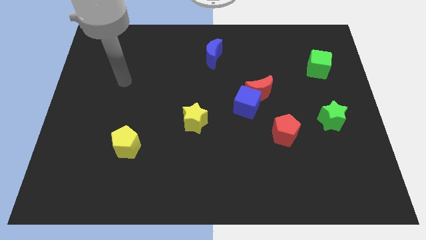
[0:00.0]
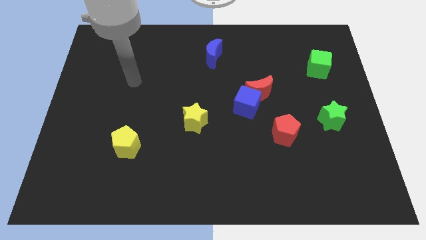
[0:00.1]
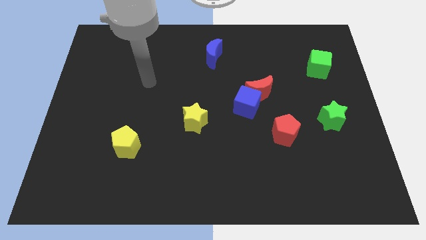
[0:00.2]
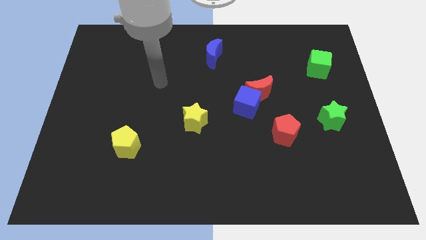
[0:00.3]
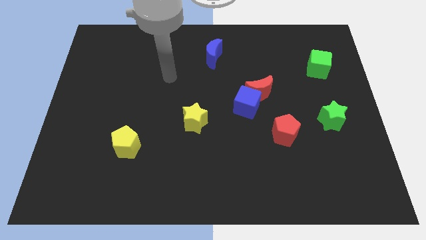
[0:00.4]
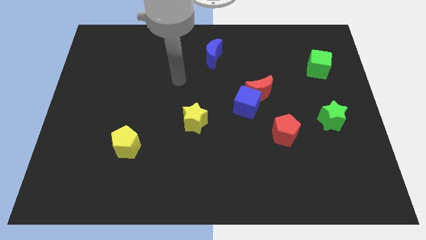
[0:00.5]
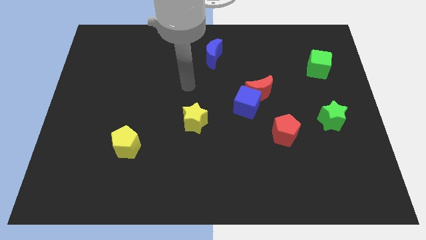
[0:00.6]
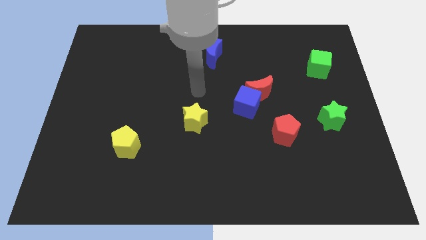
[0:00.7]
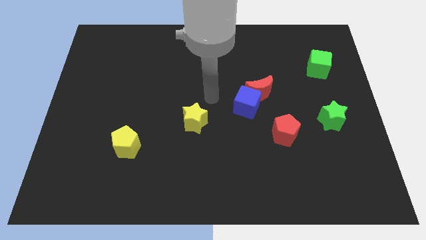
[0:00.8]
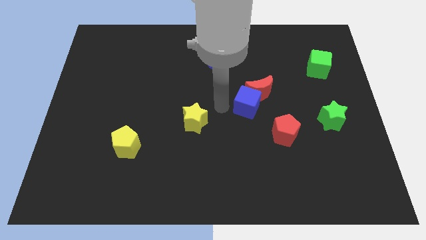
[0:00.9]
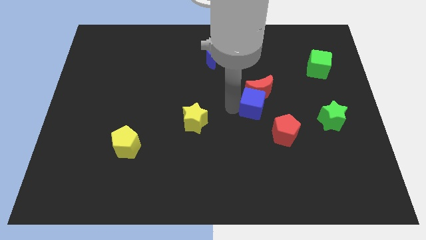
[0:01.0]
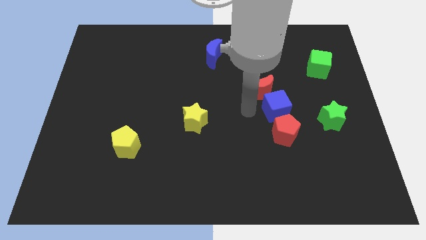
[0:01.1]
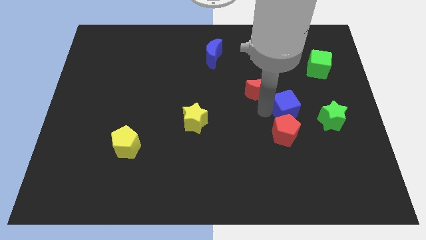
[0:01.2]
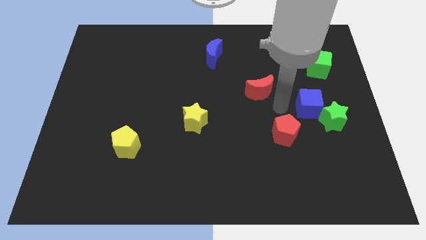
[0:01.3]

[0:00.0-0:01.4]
move the red moon away from the blue cube

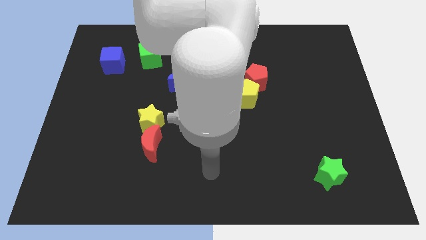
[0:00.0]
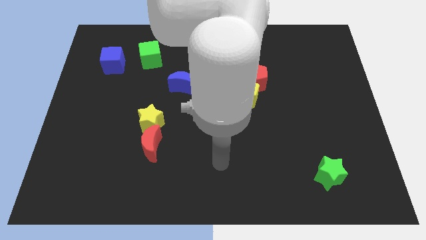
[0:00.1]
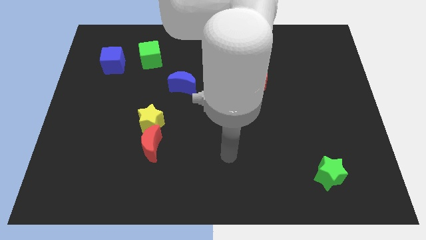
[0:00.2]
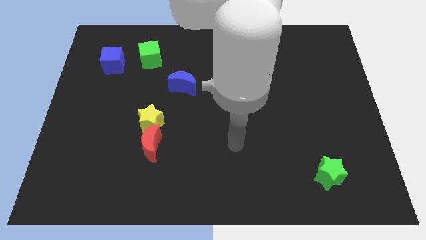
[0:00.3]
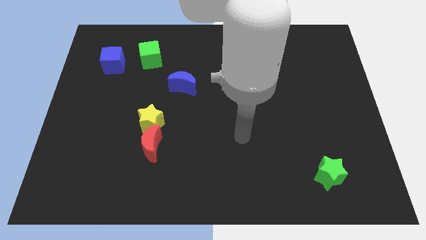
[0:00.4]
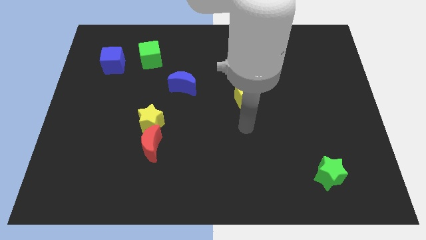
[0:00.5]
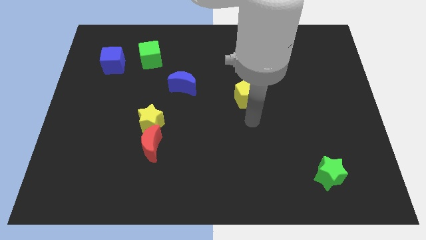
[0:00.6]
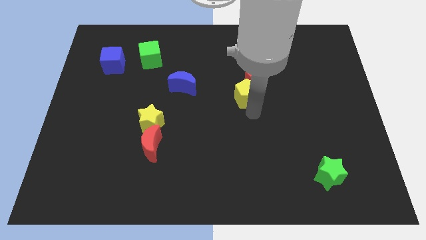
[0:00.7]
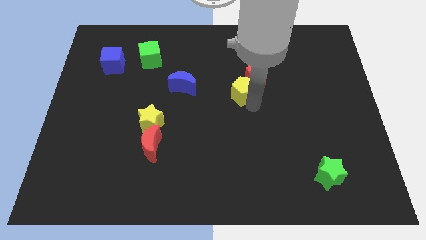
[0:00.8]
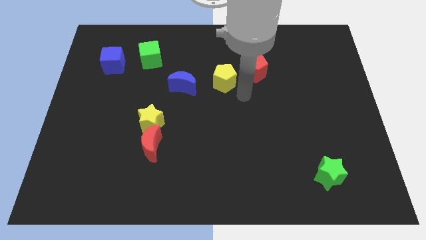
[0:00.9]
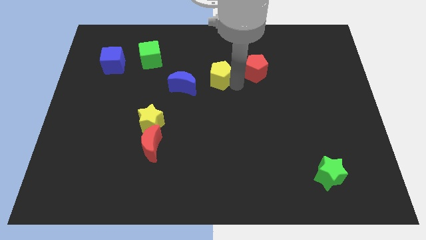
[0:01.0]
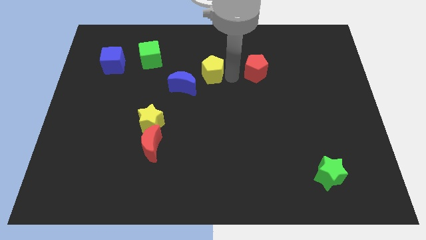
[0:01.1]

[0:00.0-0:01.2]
pull the red pentagon apart from the yellow pentagon

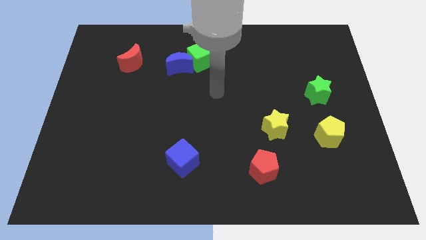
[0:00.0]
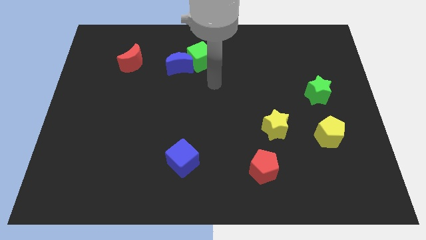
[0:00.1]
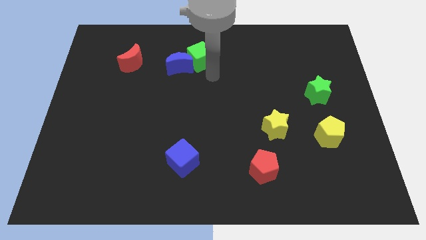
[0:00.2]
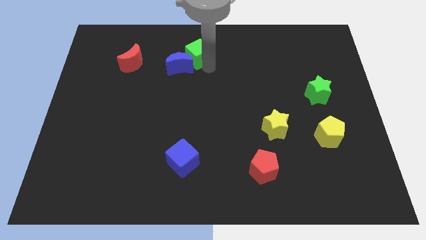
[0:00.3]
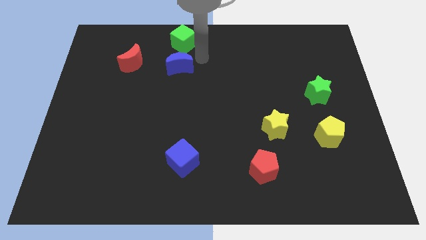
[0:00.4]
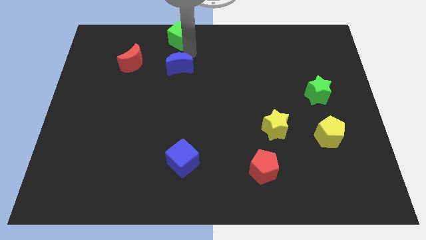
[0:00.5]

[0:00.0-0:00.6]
separate the blue moon from the green cube

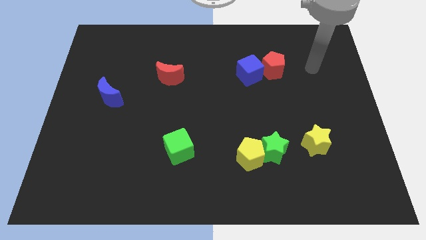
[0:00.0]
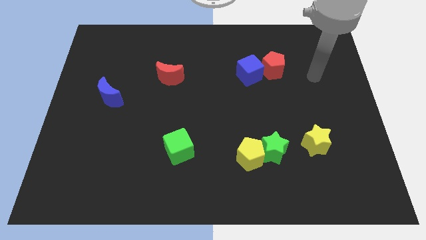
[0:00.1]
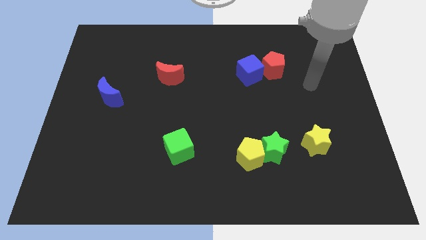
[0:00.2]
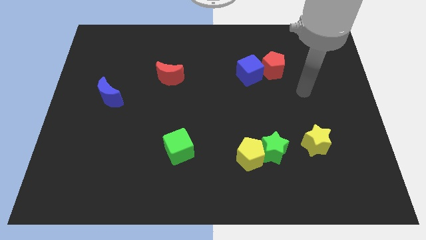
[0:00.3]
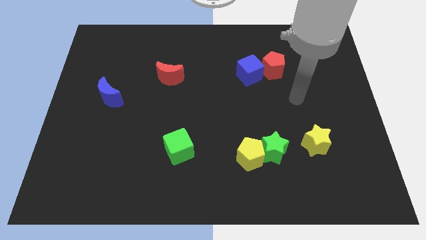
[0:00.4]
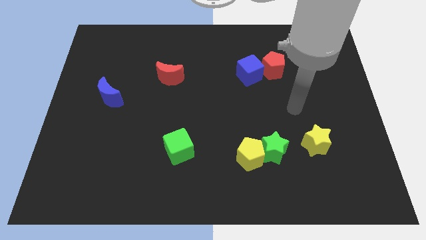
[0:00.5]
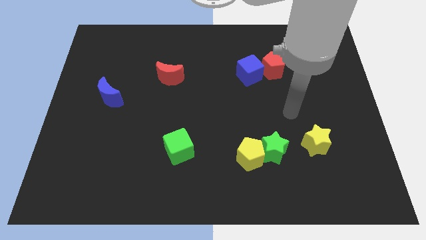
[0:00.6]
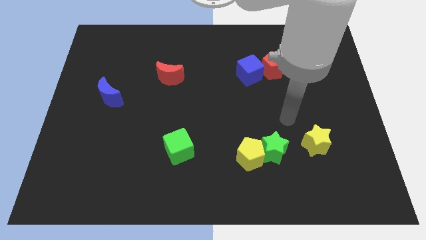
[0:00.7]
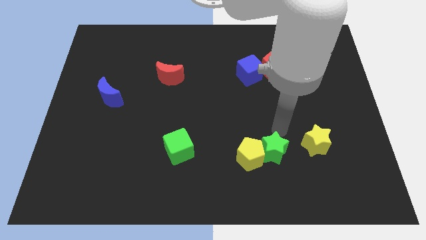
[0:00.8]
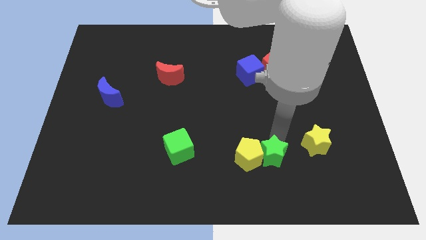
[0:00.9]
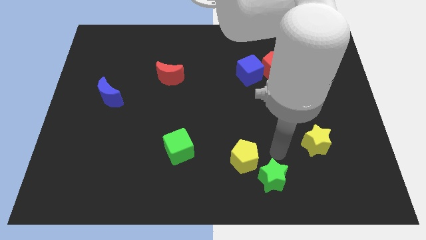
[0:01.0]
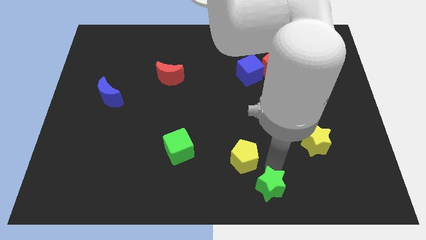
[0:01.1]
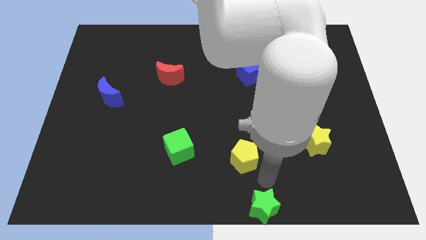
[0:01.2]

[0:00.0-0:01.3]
separate the yellow pentagon from the green star

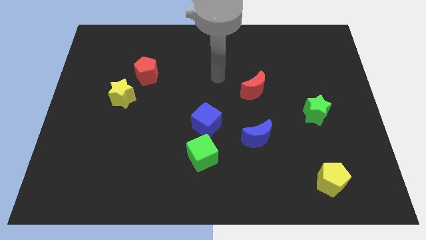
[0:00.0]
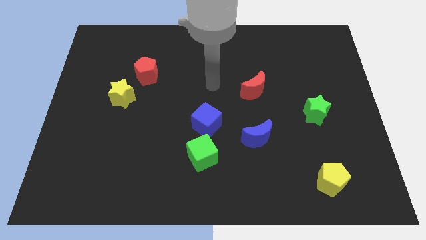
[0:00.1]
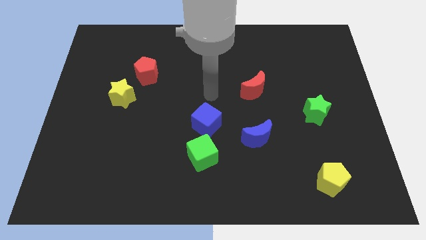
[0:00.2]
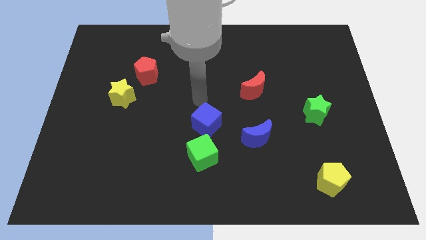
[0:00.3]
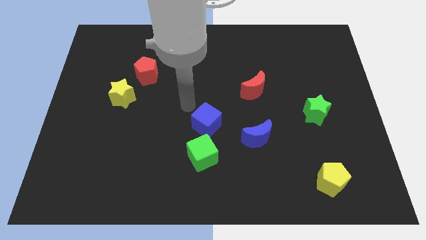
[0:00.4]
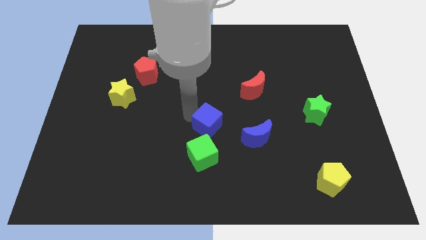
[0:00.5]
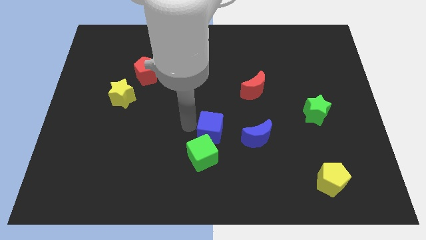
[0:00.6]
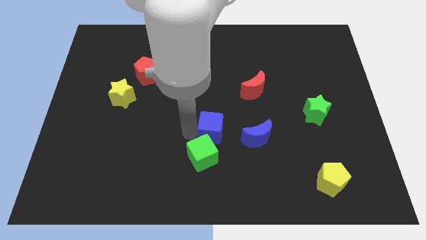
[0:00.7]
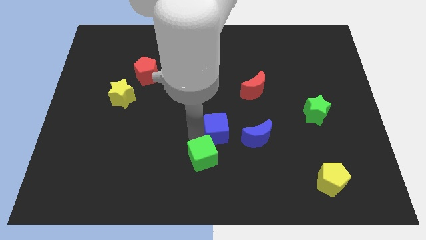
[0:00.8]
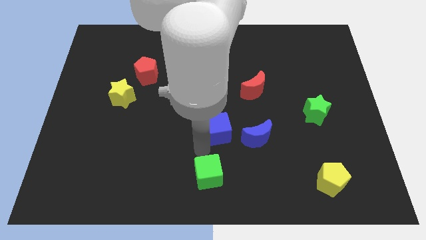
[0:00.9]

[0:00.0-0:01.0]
move the blue cube away from the green cube

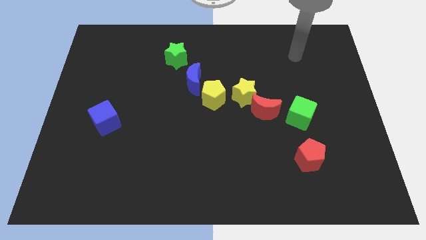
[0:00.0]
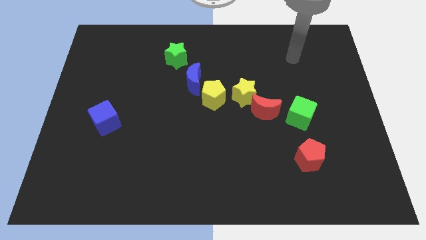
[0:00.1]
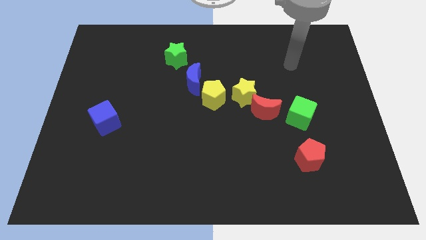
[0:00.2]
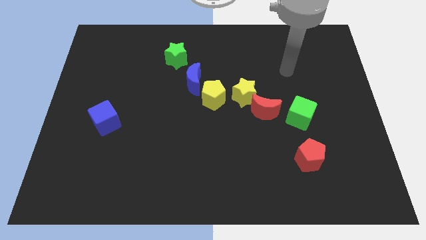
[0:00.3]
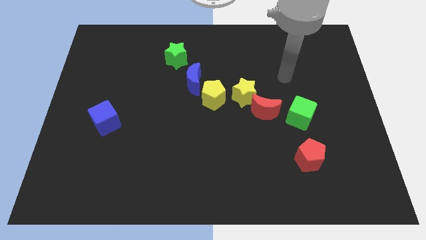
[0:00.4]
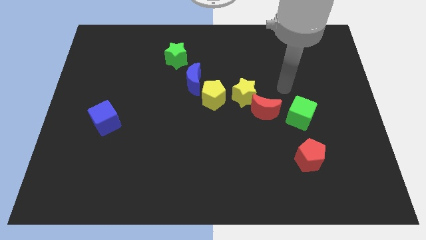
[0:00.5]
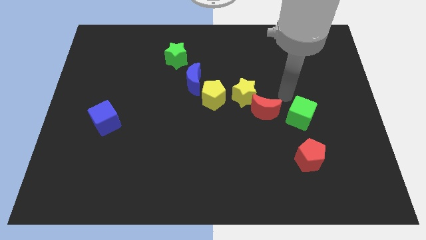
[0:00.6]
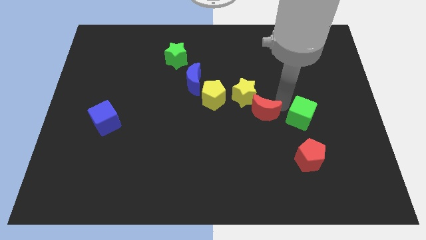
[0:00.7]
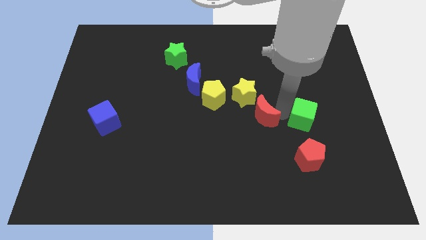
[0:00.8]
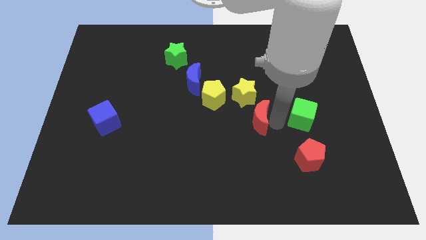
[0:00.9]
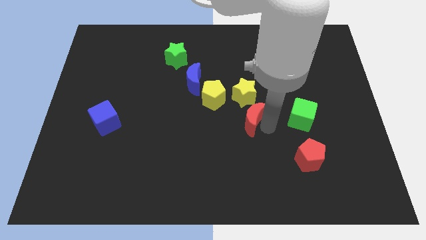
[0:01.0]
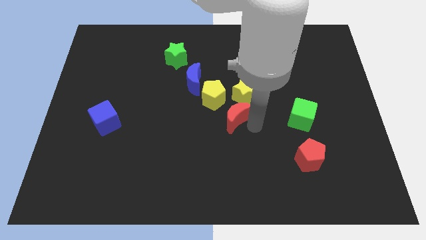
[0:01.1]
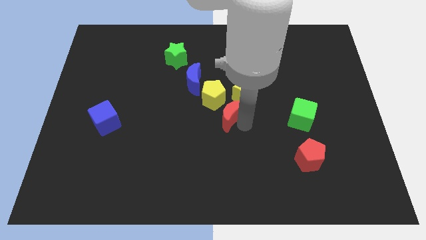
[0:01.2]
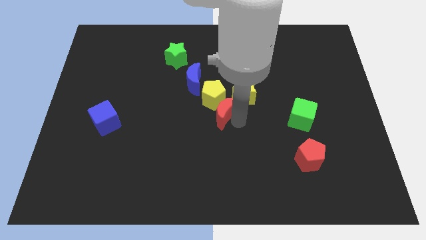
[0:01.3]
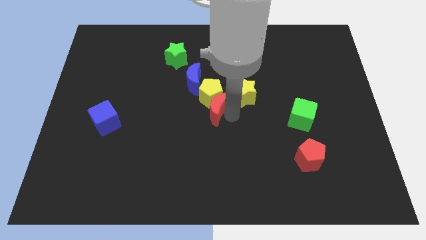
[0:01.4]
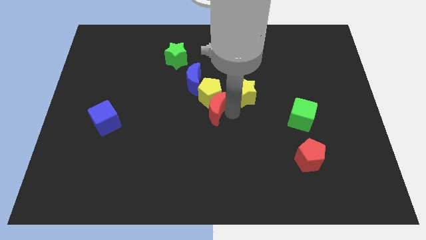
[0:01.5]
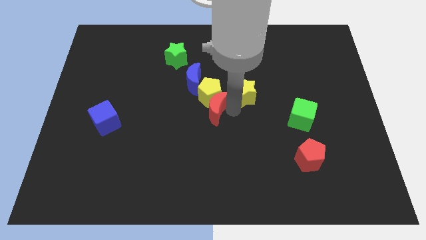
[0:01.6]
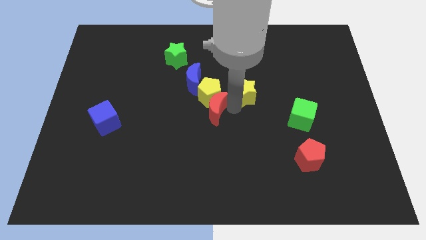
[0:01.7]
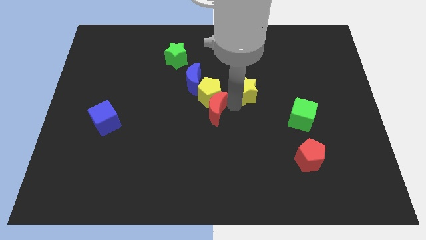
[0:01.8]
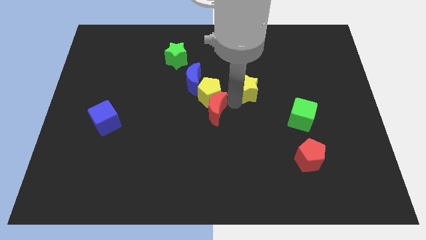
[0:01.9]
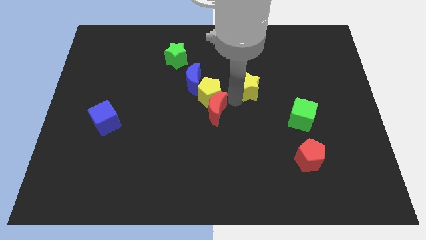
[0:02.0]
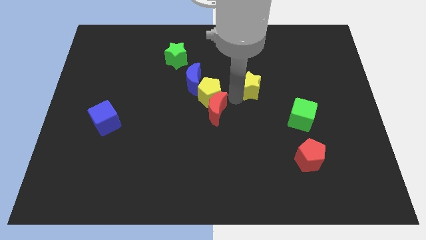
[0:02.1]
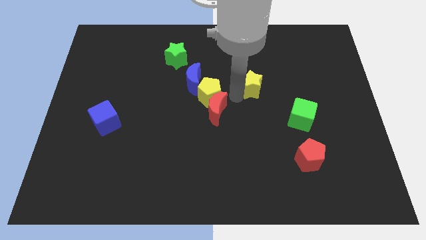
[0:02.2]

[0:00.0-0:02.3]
pull the yellow star apart from the red moon and yellow pentagon

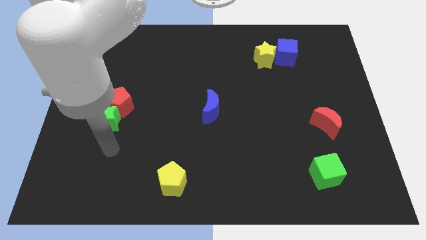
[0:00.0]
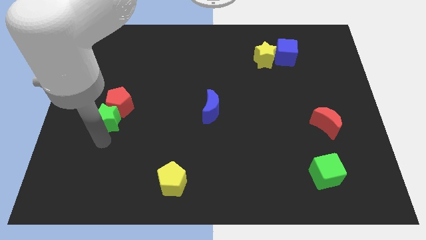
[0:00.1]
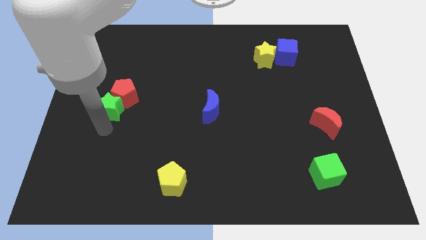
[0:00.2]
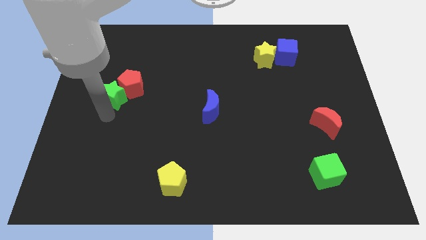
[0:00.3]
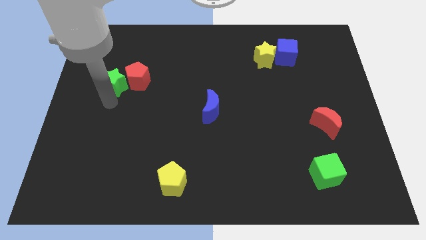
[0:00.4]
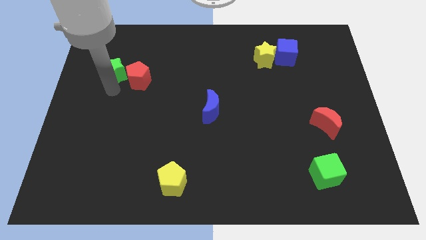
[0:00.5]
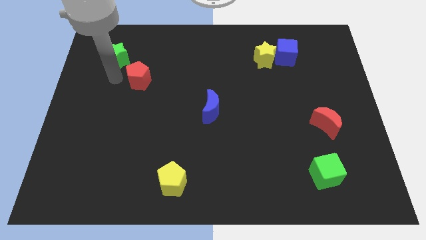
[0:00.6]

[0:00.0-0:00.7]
pull the red pentagon apart from the green star

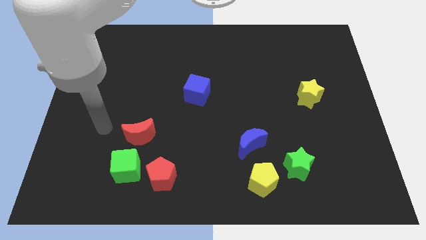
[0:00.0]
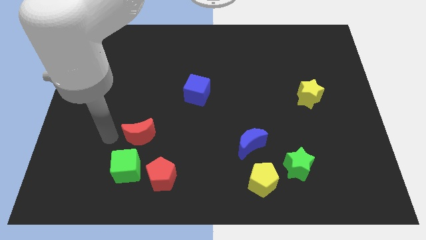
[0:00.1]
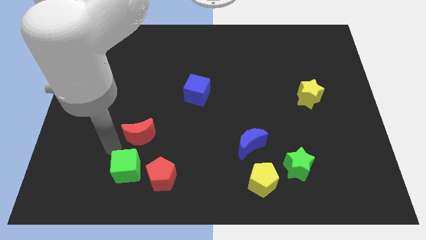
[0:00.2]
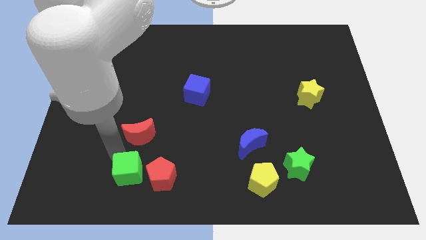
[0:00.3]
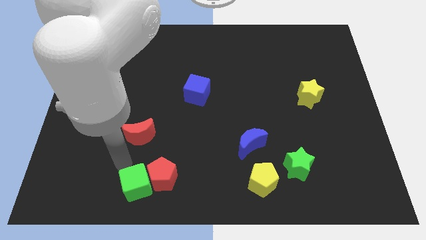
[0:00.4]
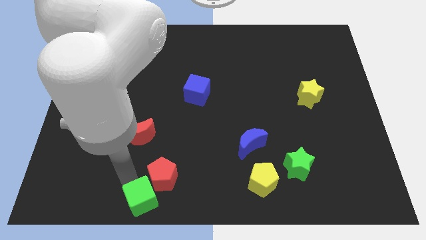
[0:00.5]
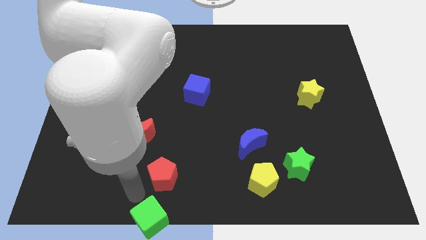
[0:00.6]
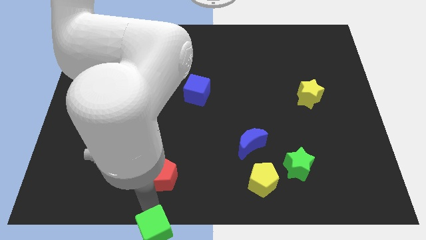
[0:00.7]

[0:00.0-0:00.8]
move the red pentagon away from the green cube
